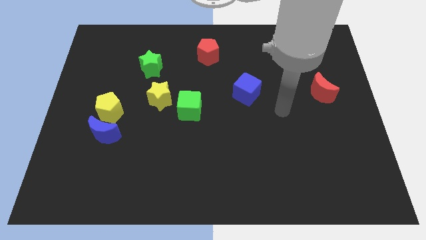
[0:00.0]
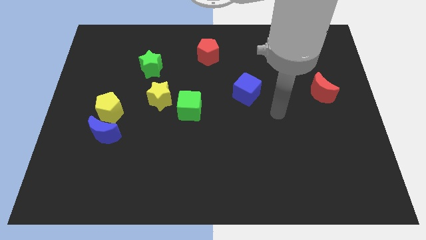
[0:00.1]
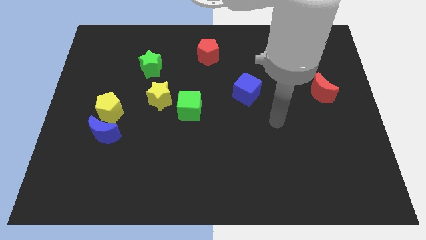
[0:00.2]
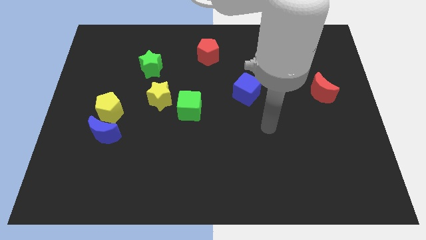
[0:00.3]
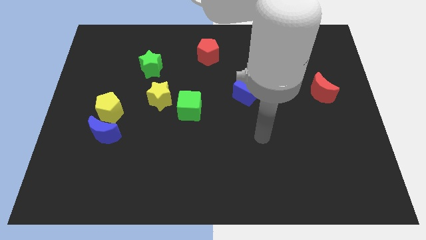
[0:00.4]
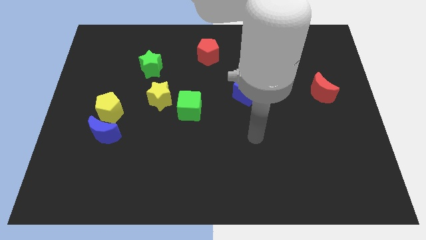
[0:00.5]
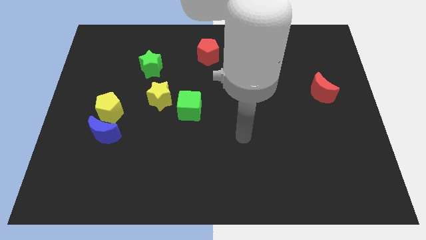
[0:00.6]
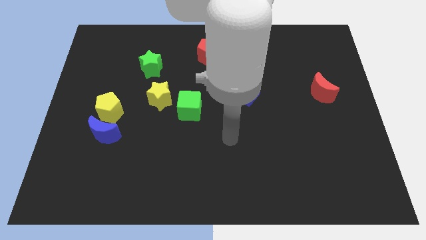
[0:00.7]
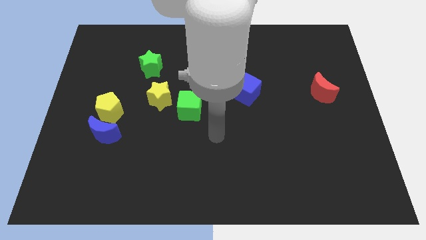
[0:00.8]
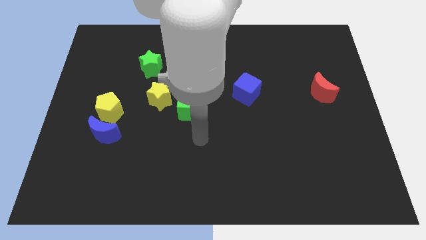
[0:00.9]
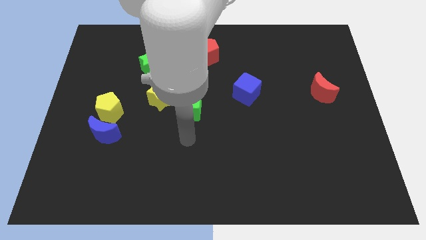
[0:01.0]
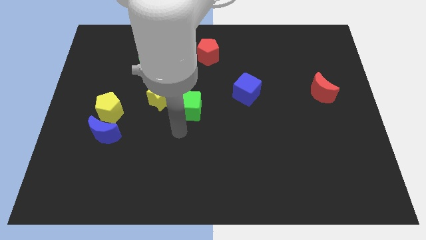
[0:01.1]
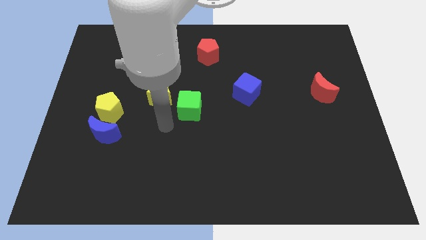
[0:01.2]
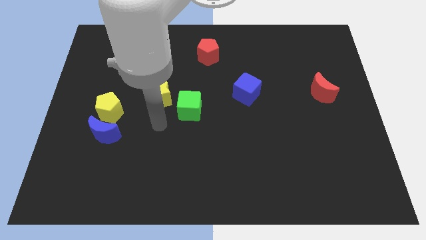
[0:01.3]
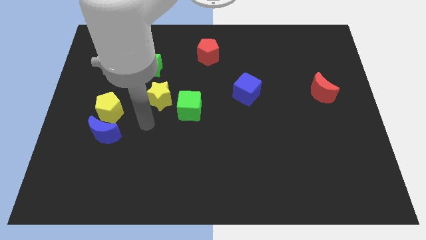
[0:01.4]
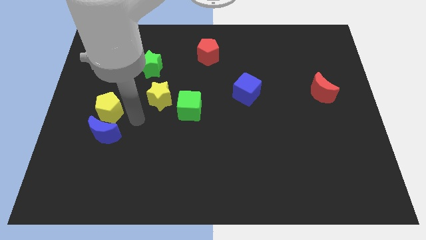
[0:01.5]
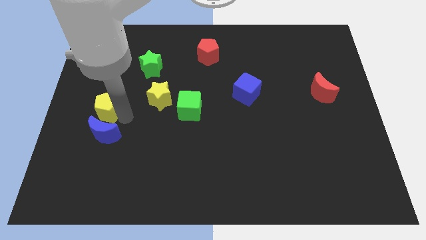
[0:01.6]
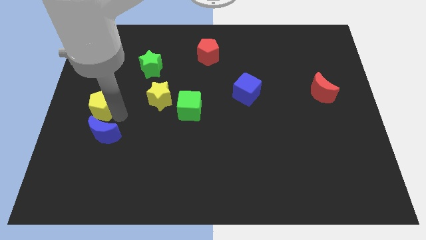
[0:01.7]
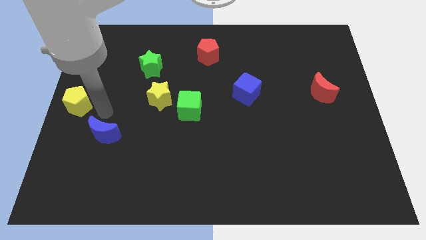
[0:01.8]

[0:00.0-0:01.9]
separate the blue moon from the yellow pentagon

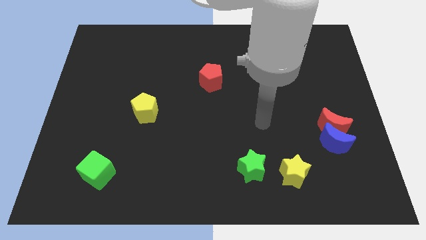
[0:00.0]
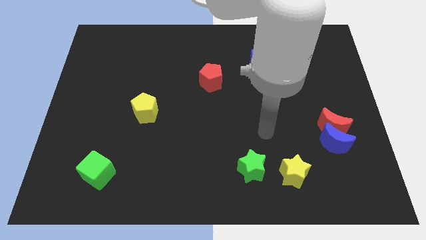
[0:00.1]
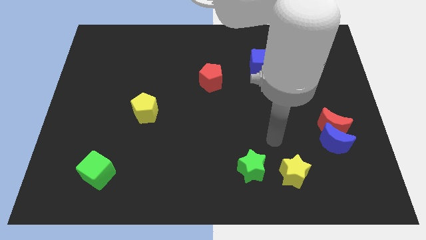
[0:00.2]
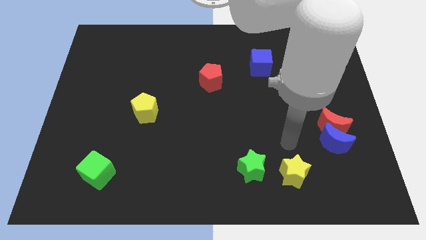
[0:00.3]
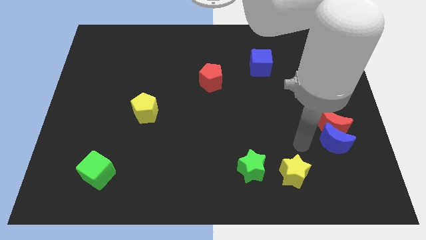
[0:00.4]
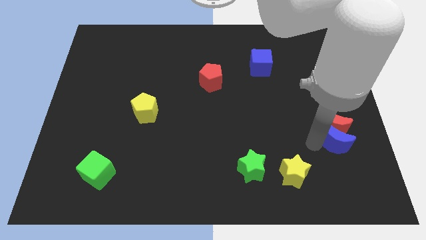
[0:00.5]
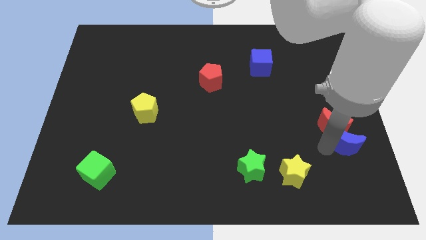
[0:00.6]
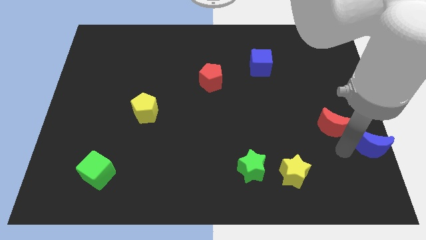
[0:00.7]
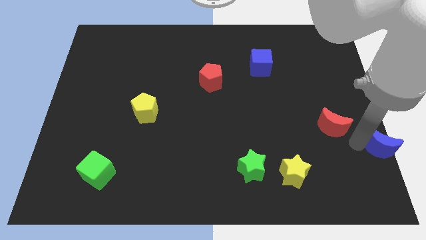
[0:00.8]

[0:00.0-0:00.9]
pull the red moon apart from the blue moon

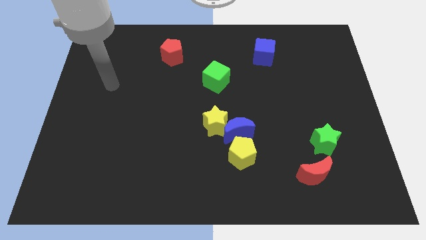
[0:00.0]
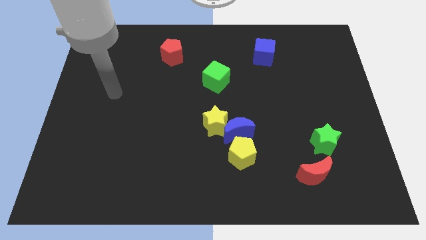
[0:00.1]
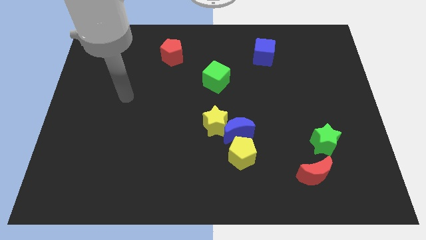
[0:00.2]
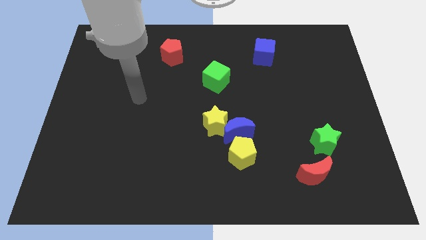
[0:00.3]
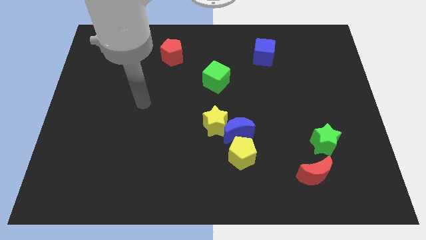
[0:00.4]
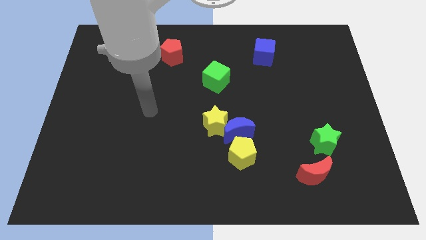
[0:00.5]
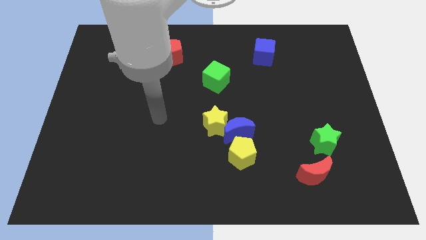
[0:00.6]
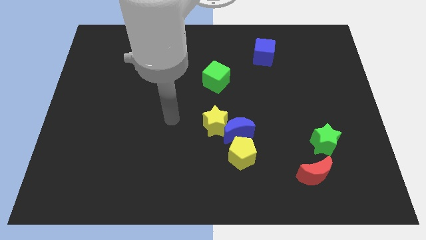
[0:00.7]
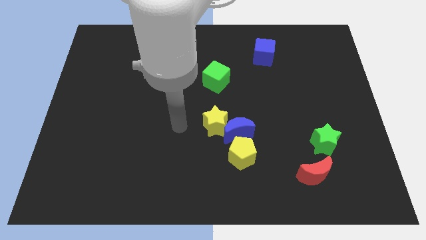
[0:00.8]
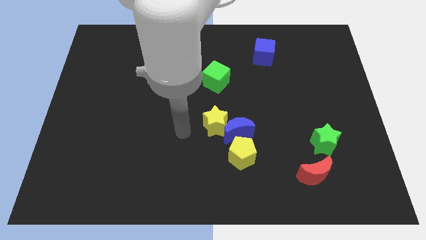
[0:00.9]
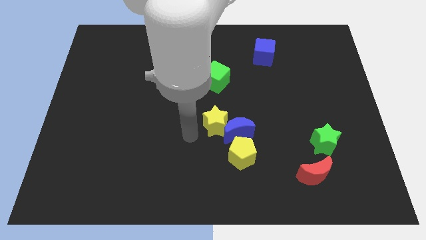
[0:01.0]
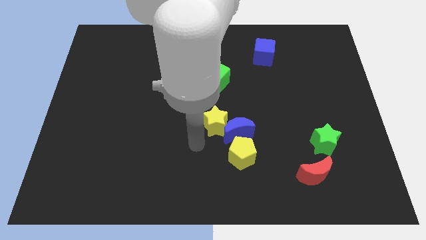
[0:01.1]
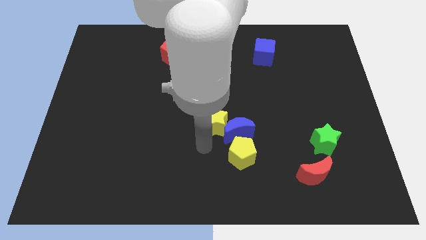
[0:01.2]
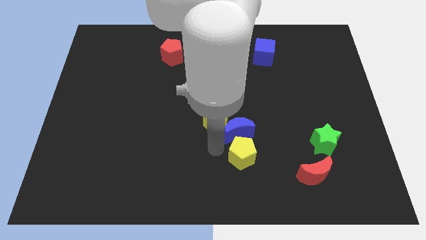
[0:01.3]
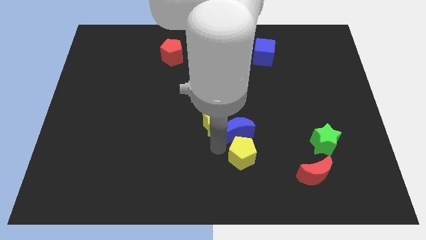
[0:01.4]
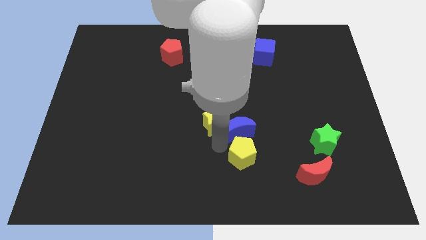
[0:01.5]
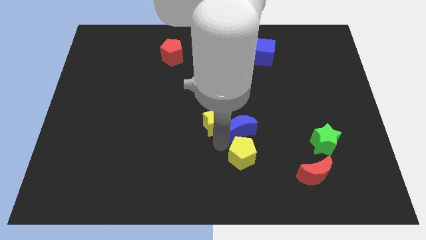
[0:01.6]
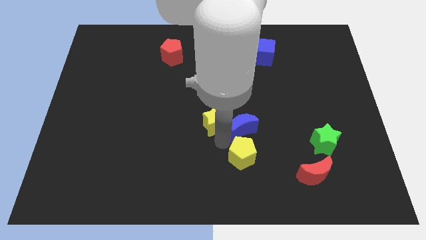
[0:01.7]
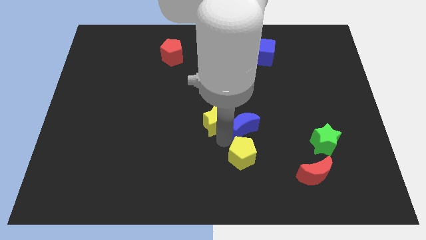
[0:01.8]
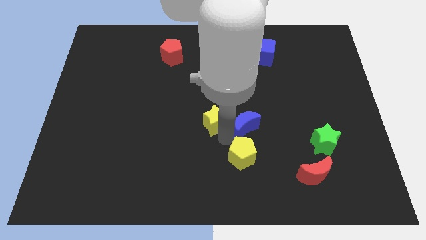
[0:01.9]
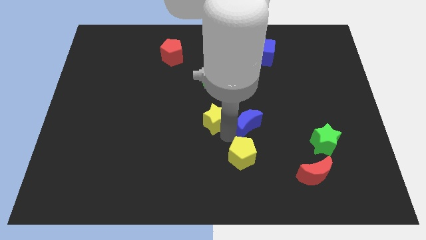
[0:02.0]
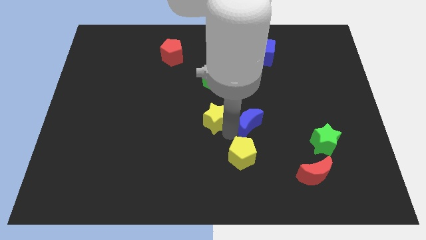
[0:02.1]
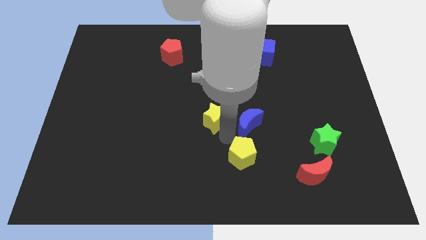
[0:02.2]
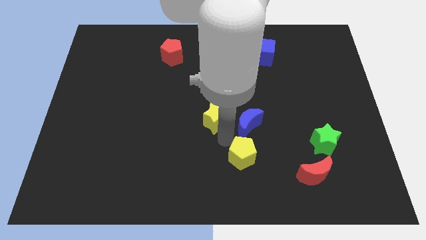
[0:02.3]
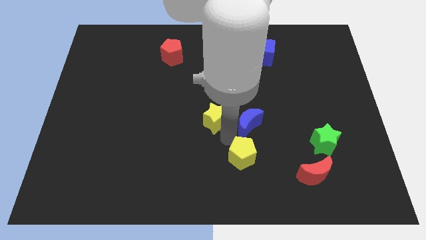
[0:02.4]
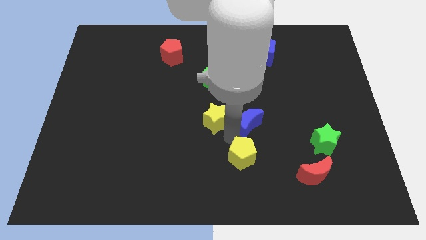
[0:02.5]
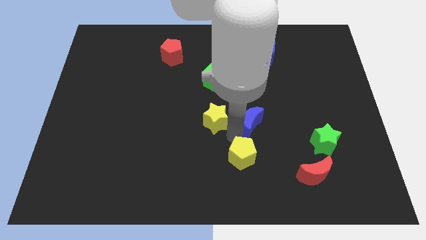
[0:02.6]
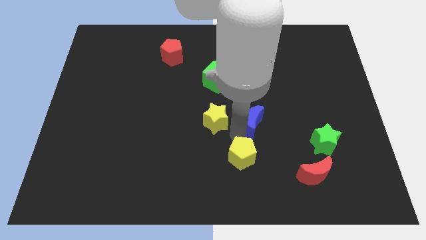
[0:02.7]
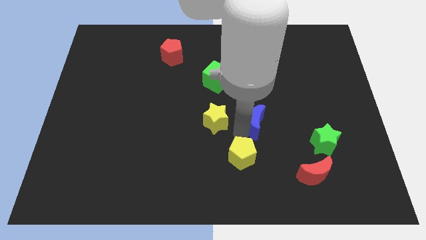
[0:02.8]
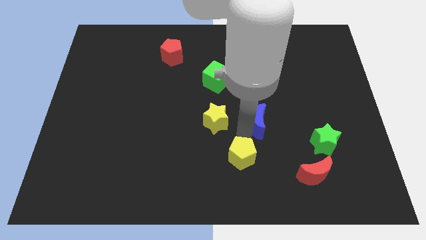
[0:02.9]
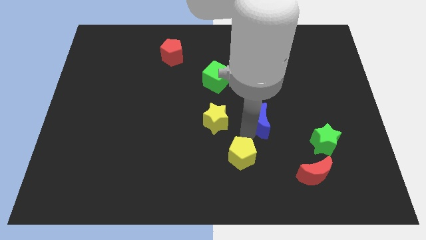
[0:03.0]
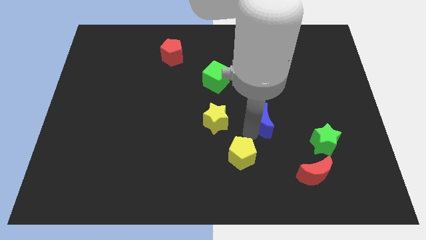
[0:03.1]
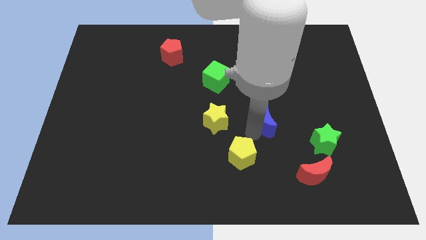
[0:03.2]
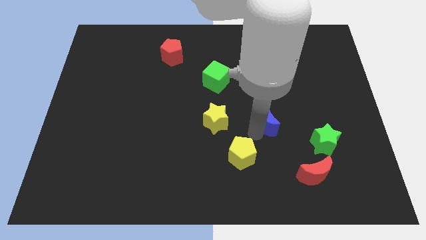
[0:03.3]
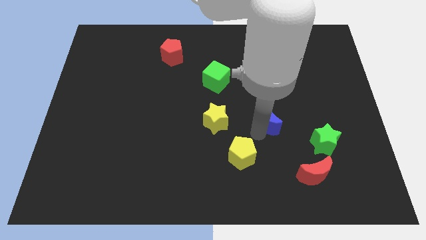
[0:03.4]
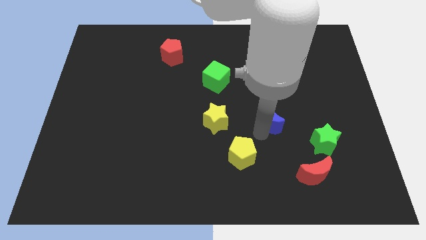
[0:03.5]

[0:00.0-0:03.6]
pull the blue moon apart from the yellow star and yellow pentagon

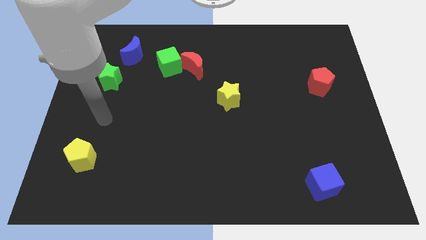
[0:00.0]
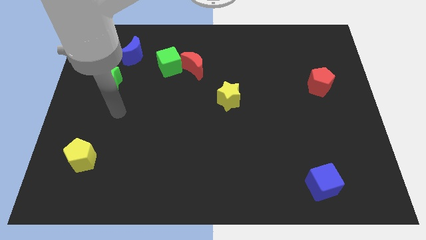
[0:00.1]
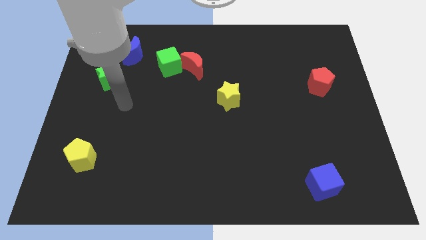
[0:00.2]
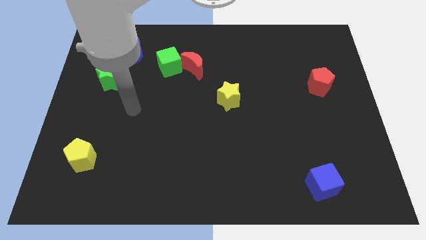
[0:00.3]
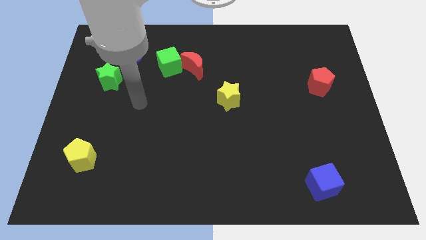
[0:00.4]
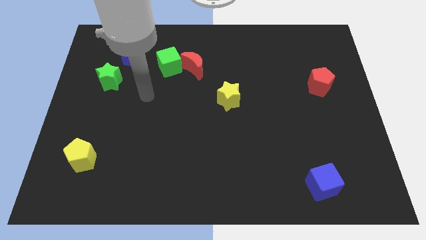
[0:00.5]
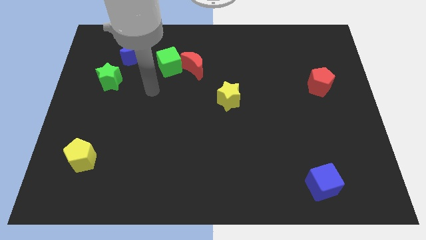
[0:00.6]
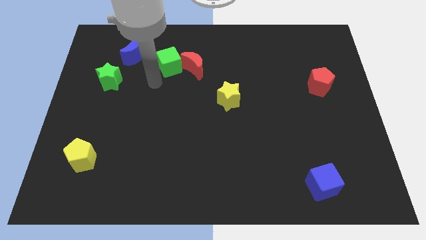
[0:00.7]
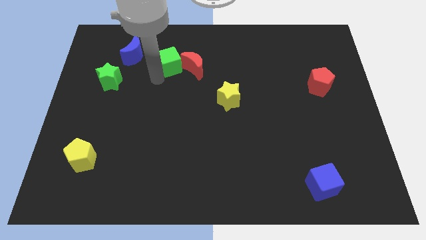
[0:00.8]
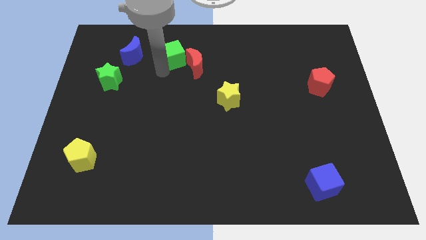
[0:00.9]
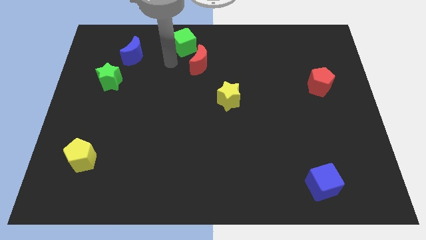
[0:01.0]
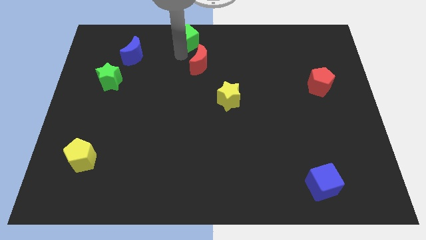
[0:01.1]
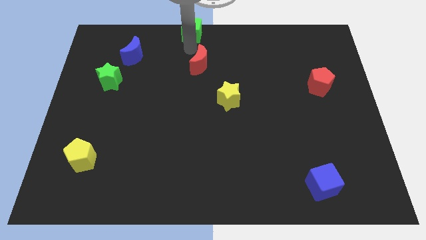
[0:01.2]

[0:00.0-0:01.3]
pull the red moon apart from the green cube

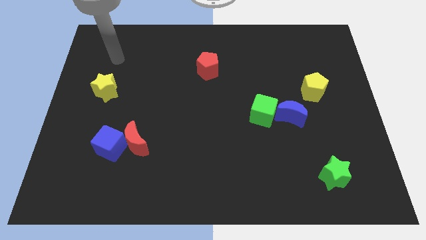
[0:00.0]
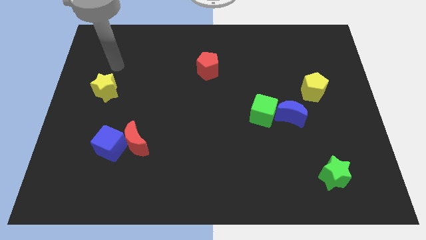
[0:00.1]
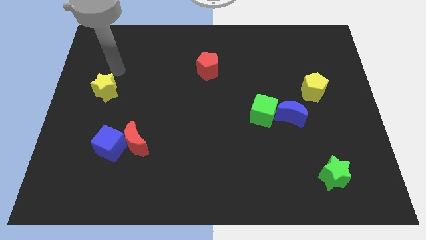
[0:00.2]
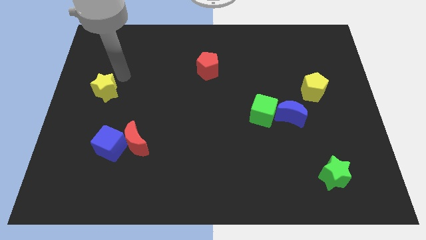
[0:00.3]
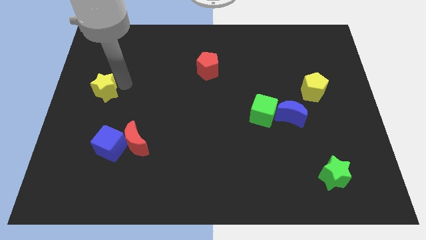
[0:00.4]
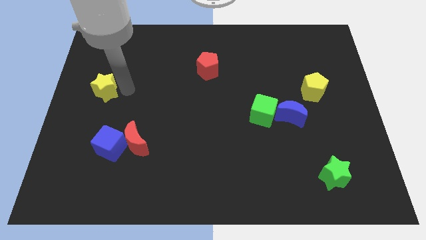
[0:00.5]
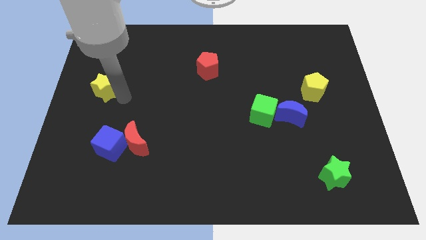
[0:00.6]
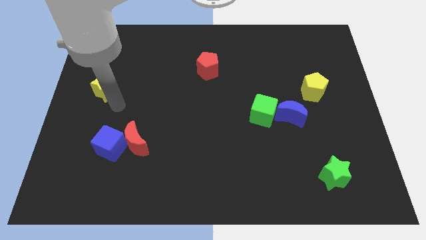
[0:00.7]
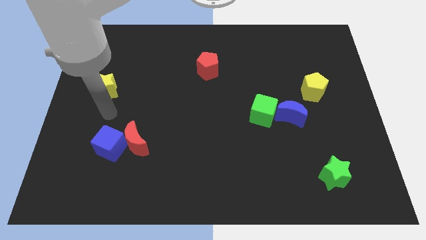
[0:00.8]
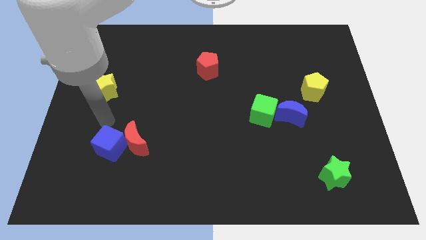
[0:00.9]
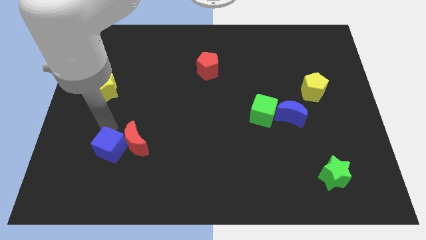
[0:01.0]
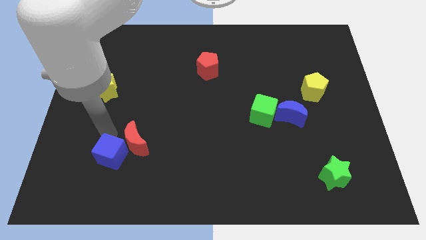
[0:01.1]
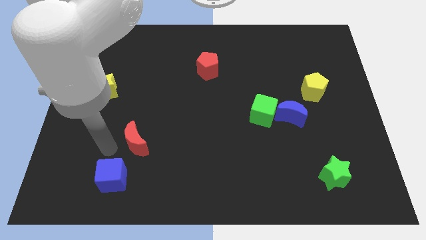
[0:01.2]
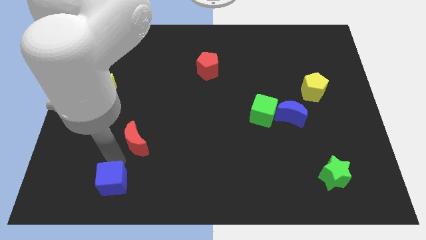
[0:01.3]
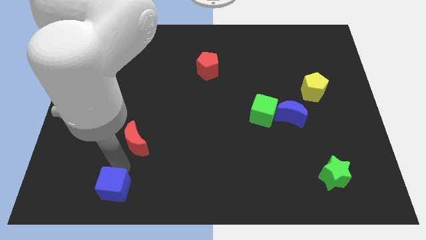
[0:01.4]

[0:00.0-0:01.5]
move the red moon away from the blue cube

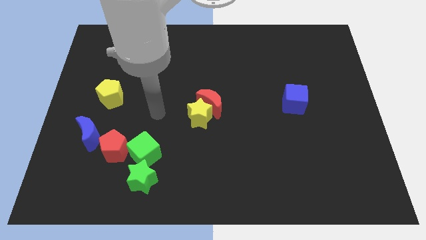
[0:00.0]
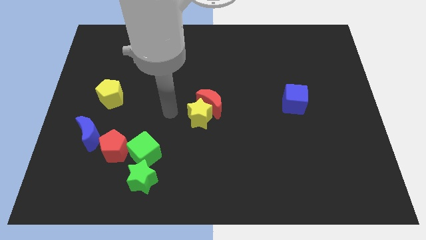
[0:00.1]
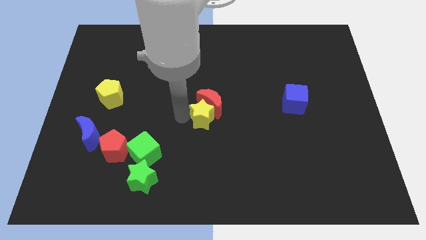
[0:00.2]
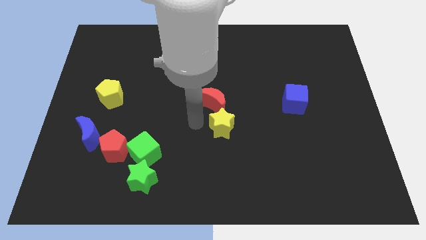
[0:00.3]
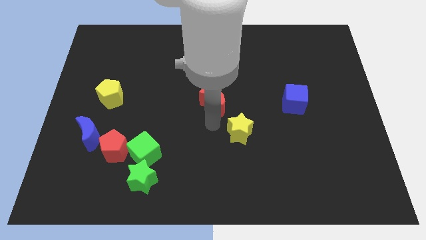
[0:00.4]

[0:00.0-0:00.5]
separate the red moon from the yellow star
